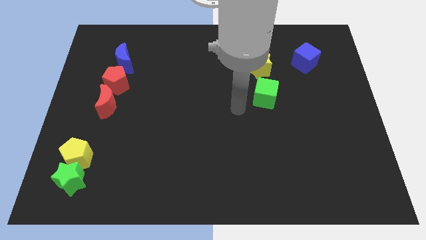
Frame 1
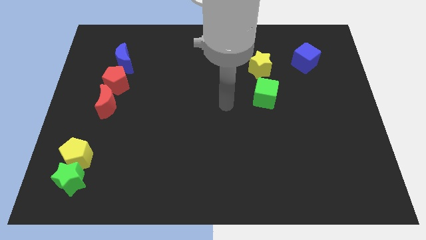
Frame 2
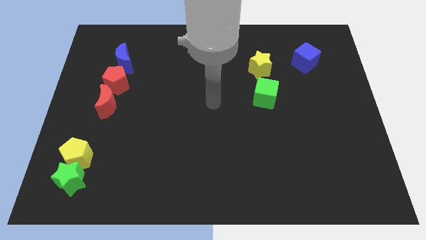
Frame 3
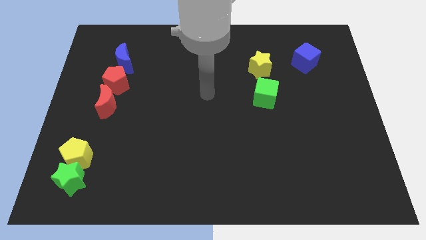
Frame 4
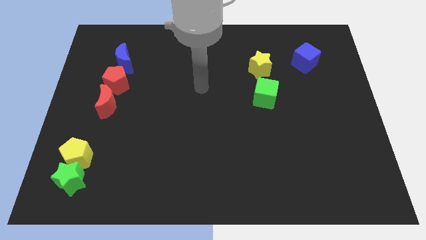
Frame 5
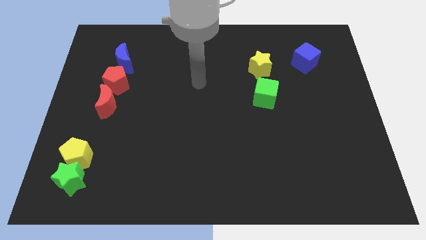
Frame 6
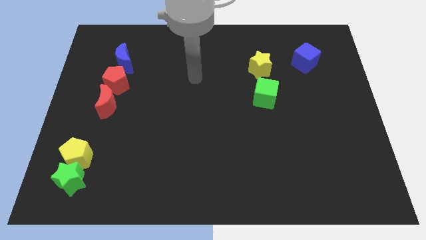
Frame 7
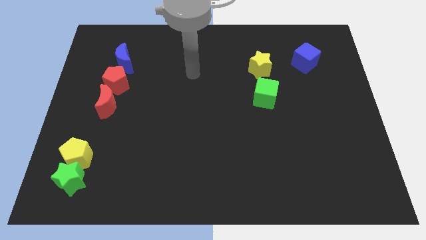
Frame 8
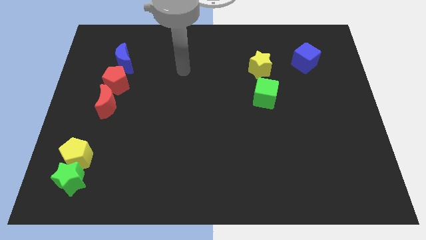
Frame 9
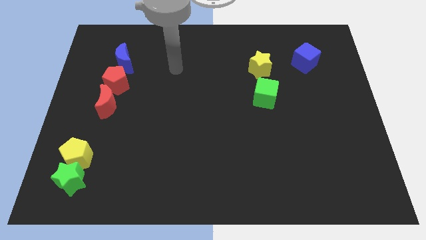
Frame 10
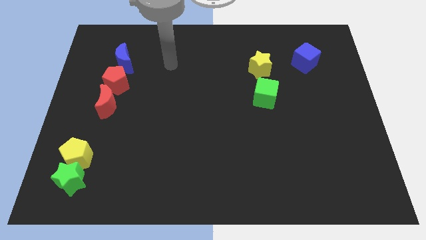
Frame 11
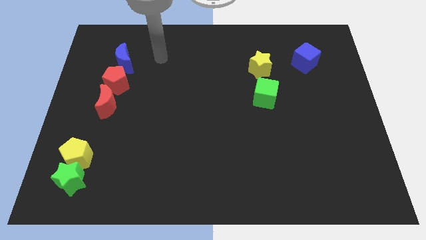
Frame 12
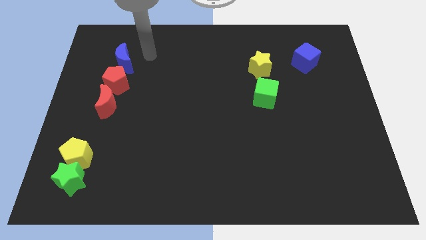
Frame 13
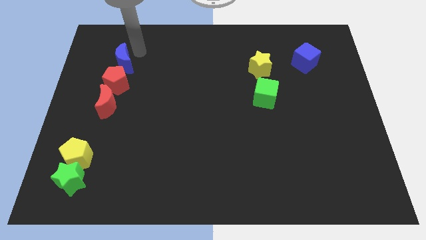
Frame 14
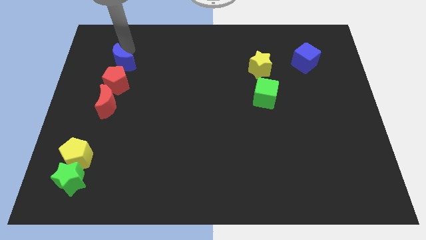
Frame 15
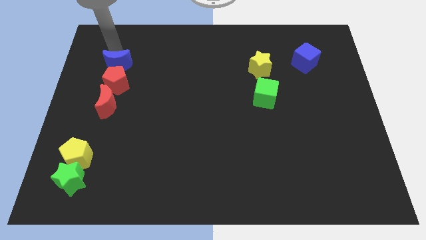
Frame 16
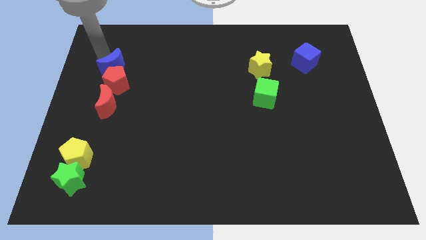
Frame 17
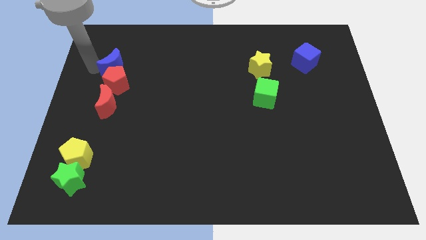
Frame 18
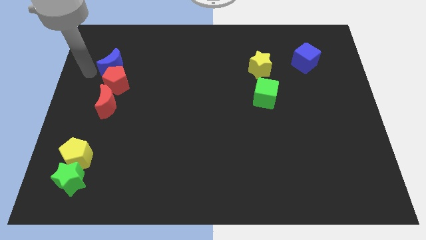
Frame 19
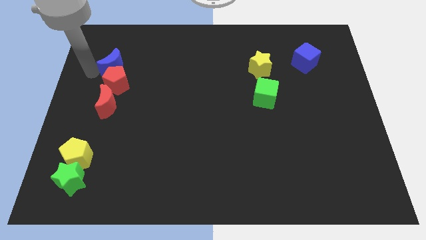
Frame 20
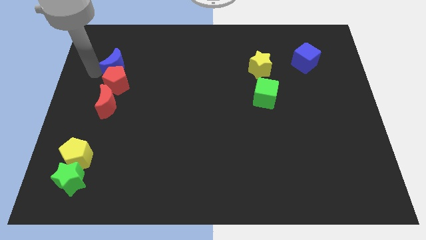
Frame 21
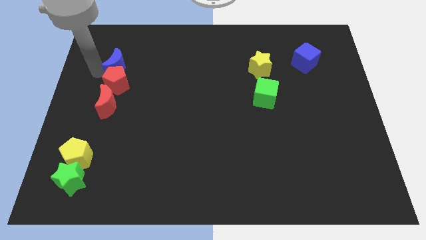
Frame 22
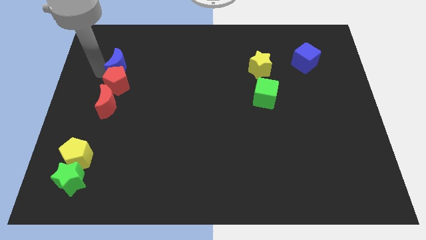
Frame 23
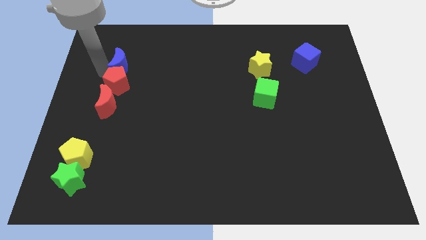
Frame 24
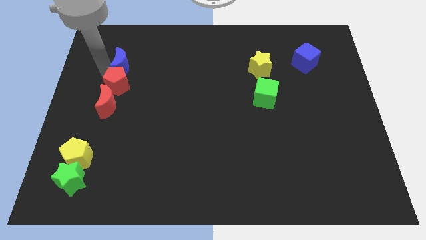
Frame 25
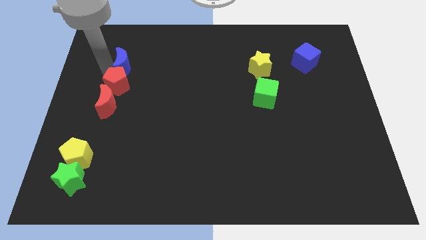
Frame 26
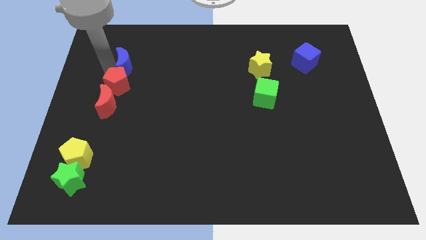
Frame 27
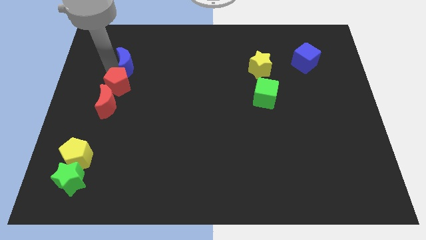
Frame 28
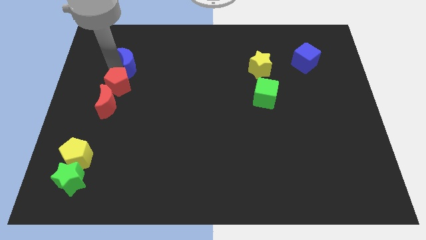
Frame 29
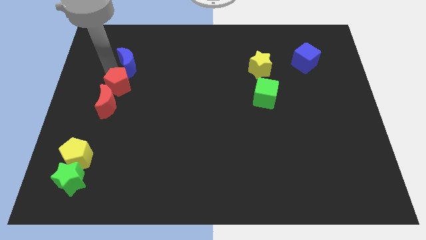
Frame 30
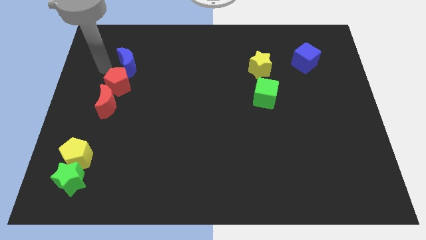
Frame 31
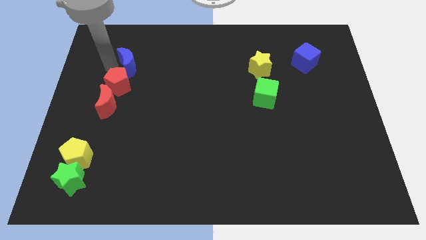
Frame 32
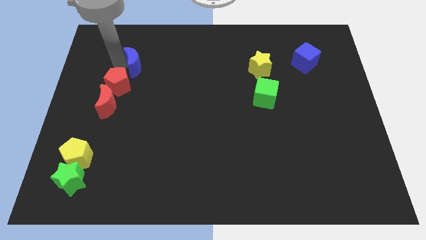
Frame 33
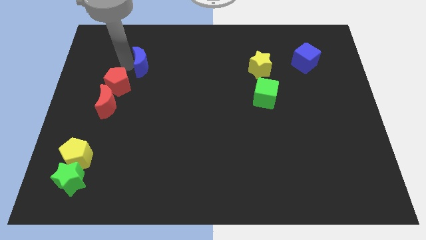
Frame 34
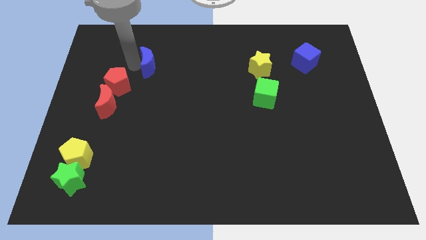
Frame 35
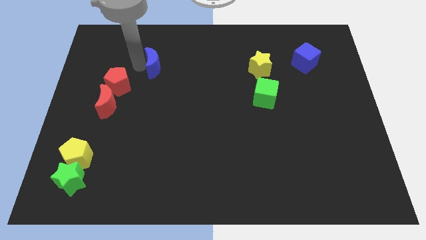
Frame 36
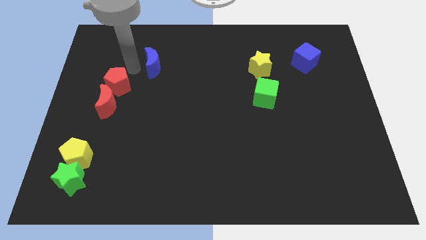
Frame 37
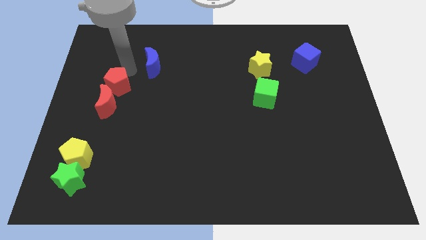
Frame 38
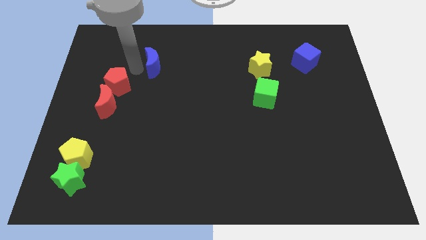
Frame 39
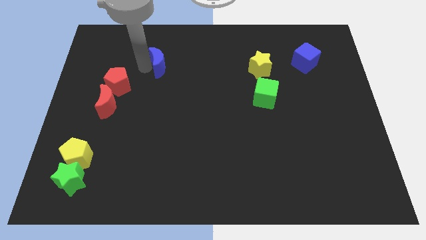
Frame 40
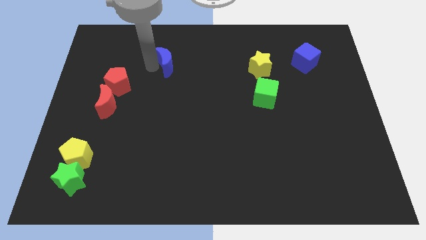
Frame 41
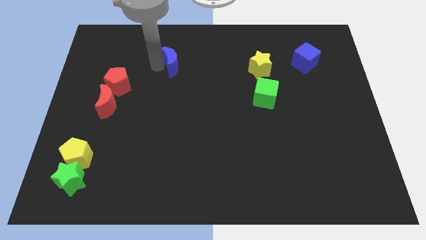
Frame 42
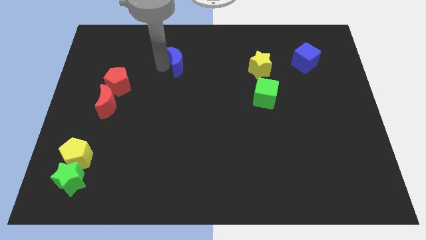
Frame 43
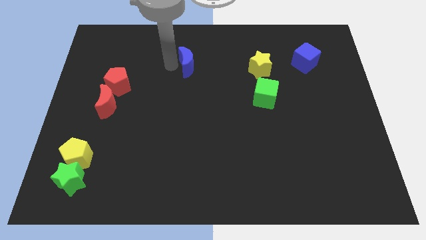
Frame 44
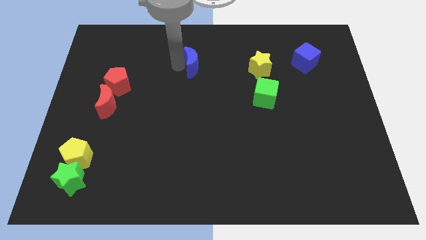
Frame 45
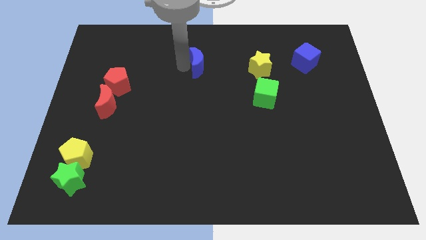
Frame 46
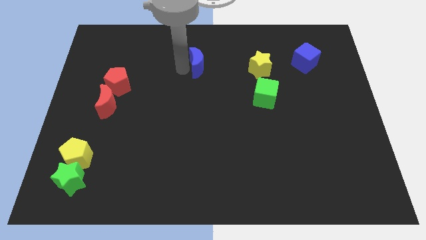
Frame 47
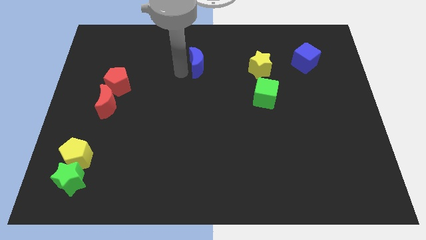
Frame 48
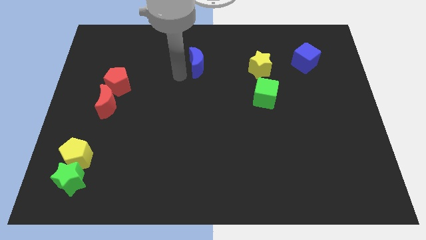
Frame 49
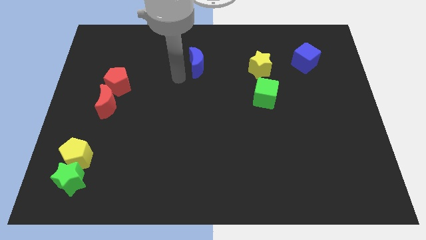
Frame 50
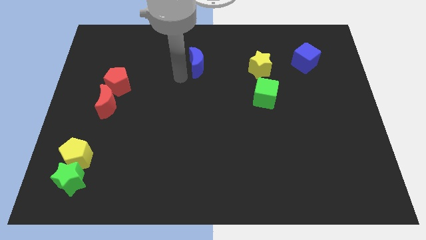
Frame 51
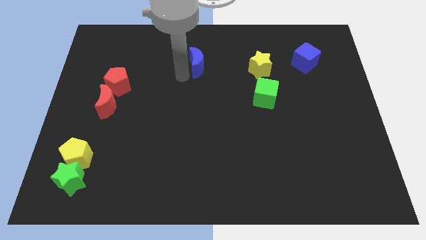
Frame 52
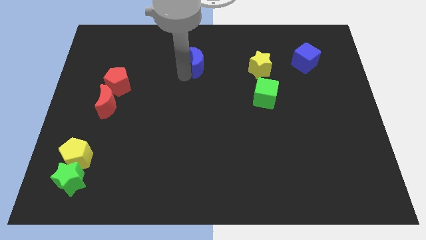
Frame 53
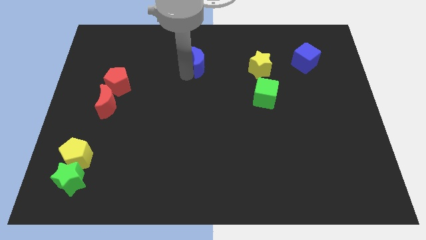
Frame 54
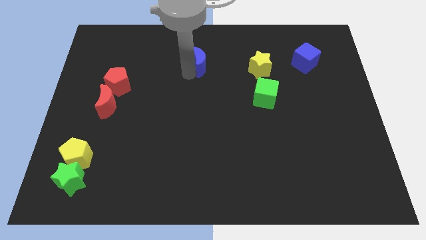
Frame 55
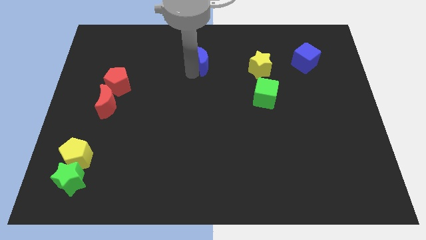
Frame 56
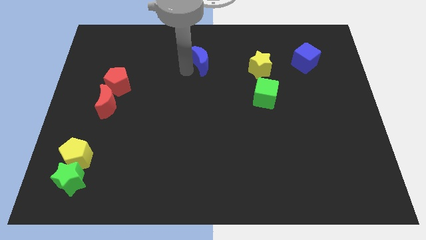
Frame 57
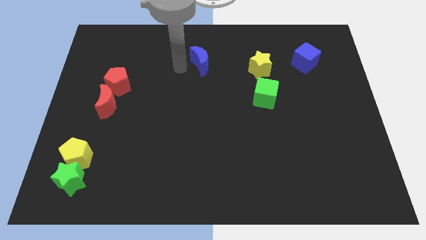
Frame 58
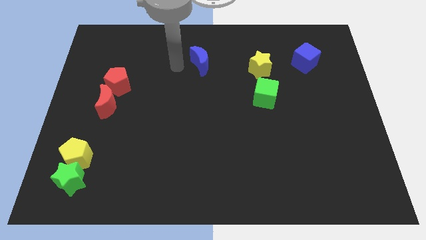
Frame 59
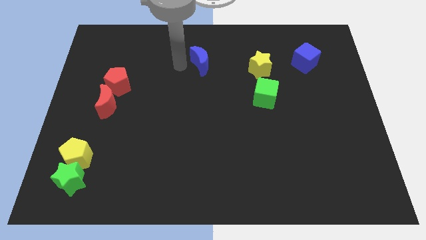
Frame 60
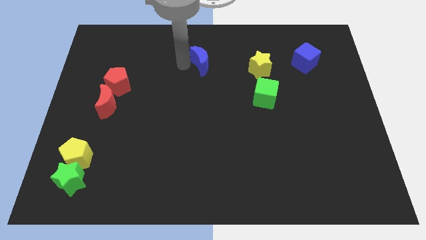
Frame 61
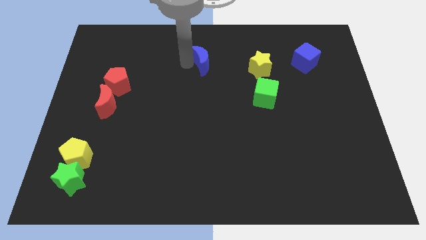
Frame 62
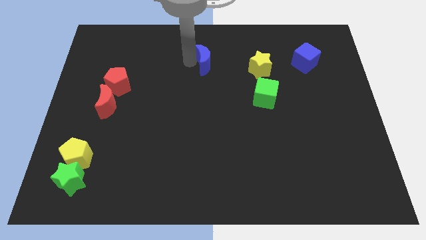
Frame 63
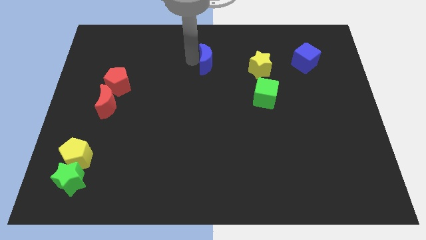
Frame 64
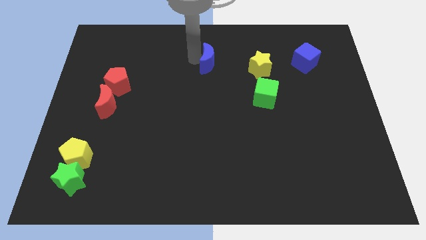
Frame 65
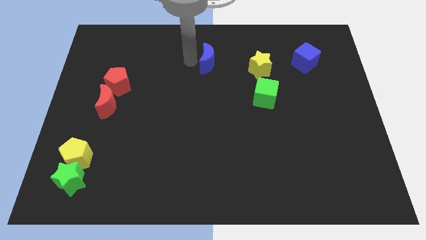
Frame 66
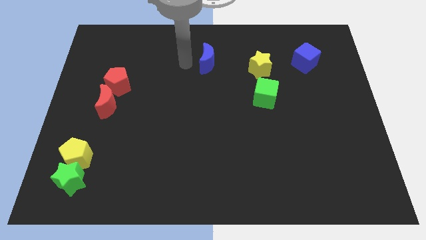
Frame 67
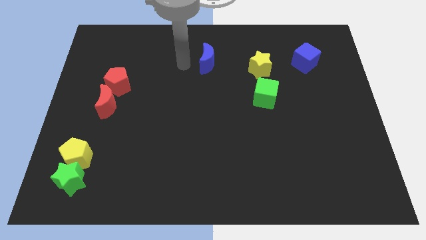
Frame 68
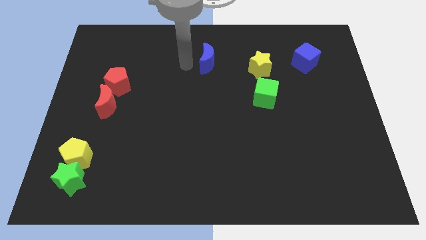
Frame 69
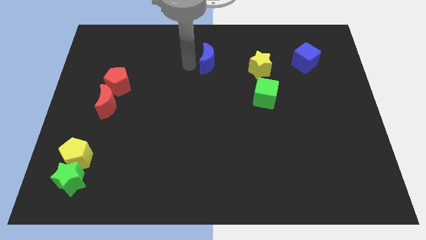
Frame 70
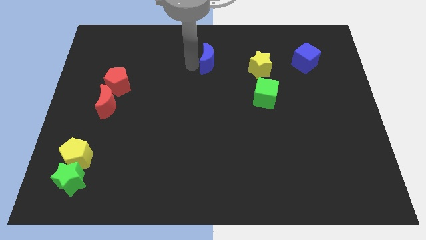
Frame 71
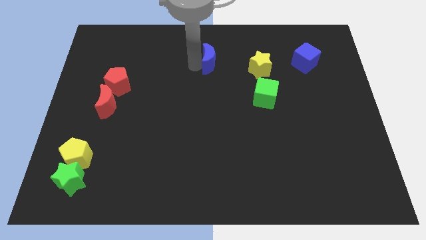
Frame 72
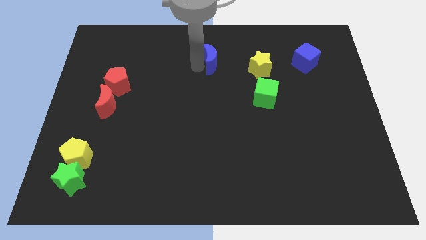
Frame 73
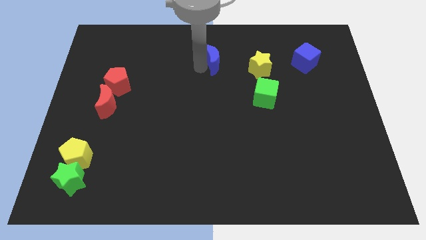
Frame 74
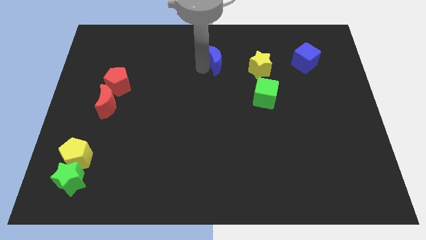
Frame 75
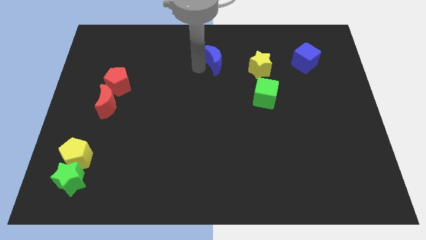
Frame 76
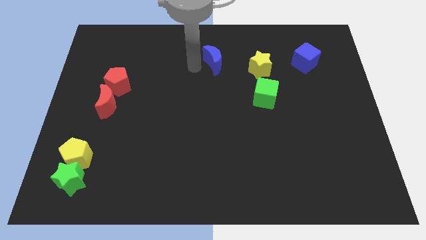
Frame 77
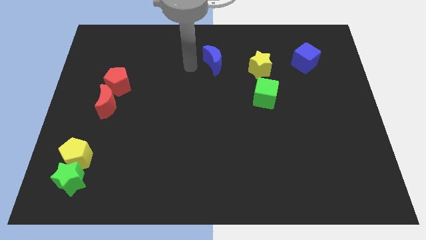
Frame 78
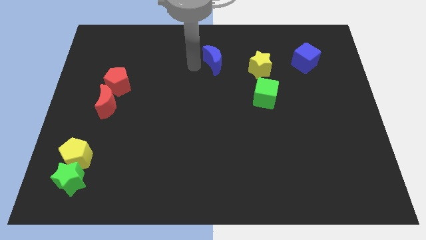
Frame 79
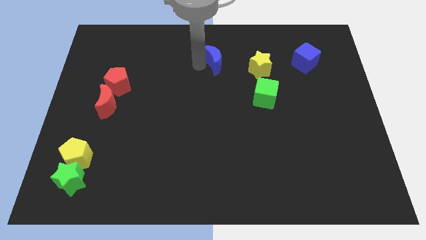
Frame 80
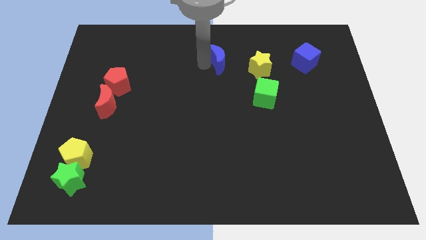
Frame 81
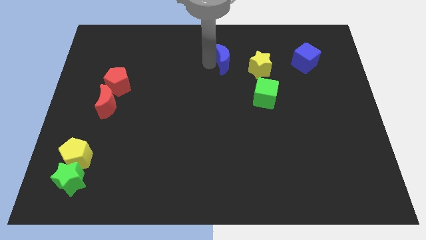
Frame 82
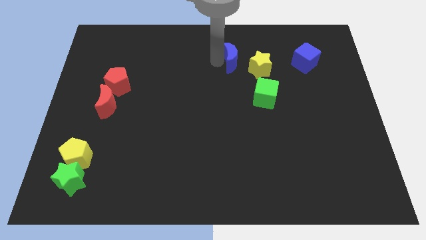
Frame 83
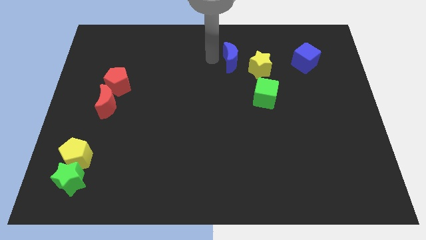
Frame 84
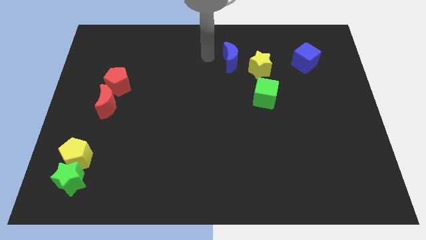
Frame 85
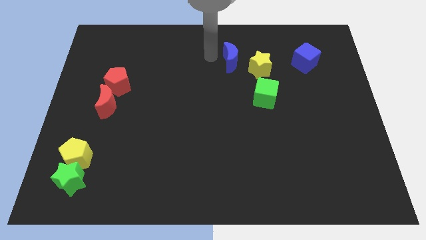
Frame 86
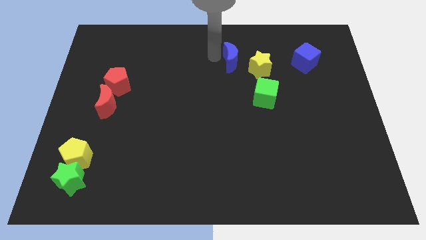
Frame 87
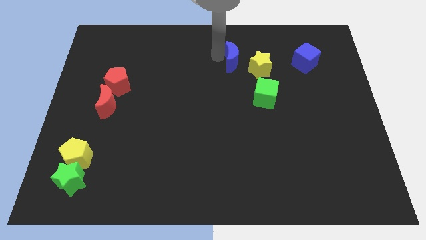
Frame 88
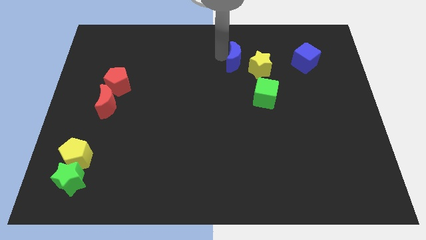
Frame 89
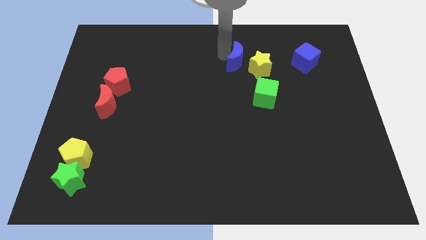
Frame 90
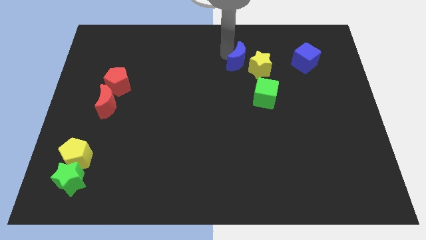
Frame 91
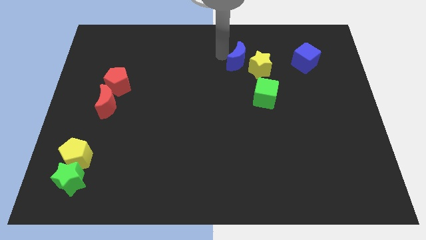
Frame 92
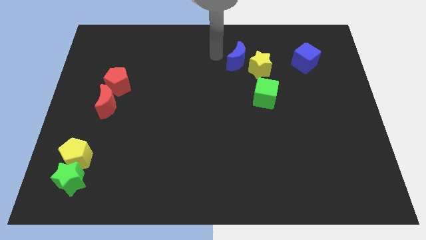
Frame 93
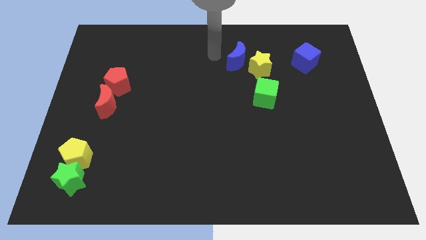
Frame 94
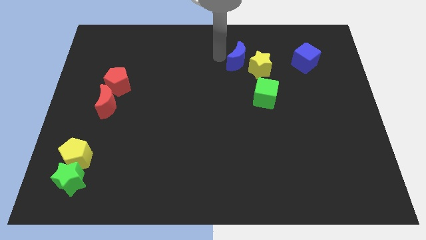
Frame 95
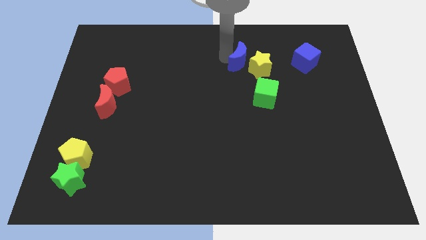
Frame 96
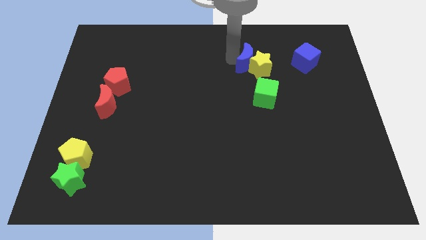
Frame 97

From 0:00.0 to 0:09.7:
slide the blue moon to the top side of the green cube
